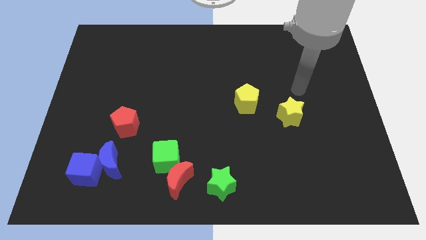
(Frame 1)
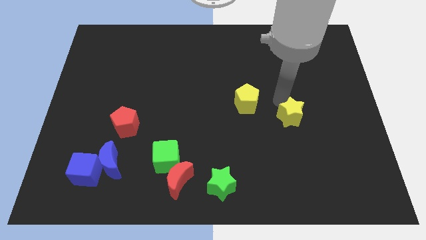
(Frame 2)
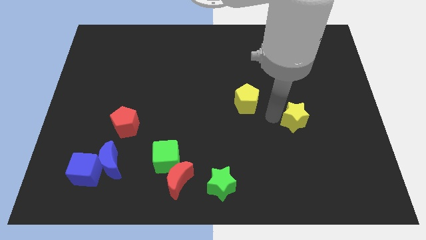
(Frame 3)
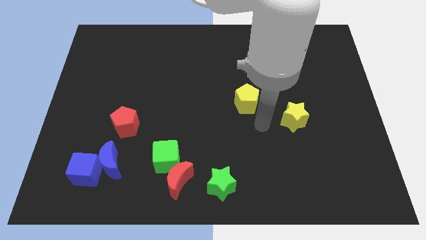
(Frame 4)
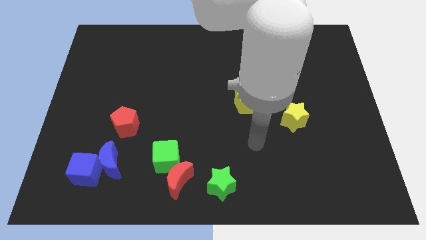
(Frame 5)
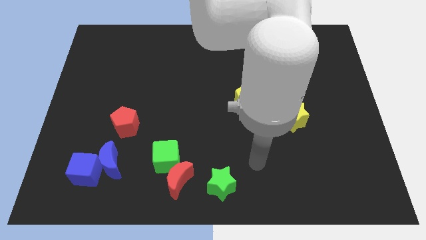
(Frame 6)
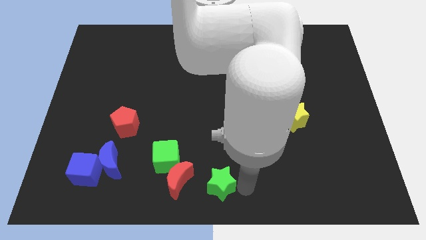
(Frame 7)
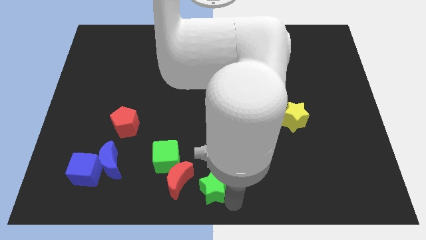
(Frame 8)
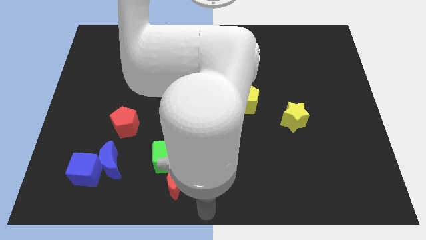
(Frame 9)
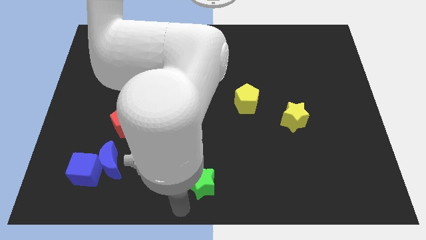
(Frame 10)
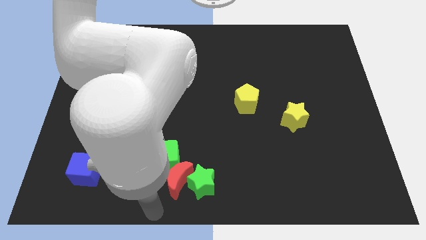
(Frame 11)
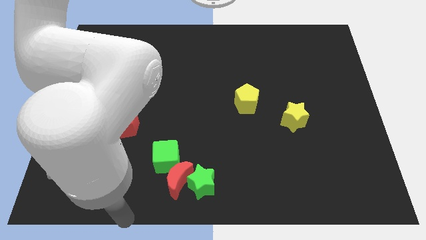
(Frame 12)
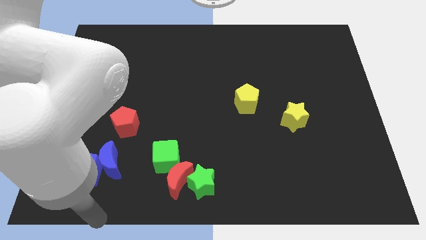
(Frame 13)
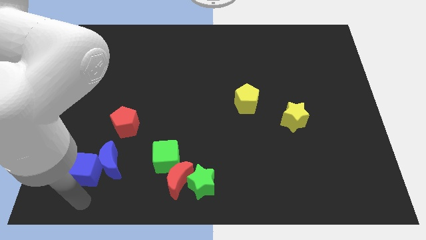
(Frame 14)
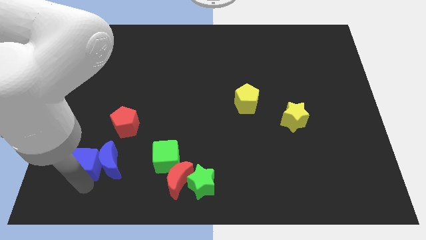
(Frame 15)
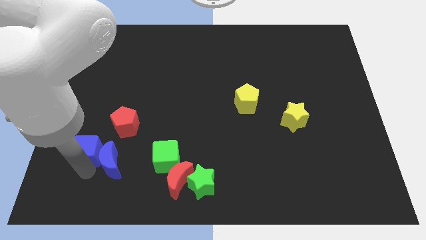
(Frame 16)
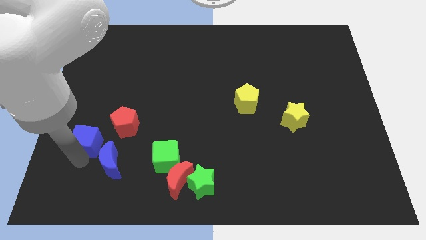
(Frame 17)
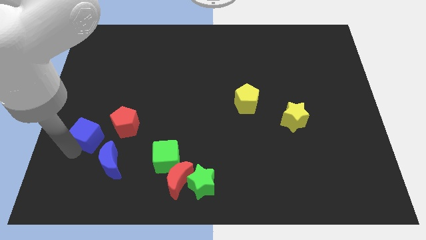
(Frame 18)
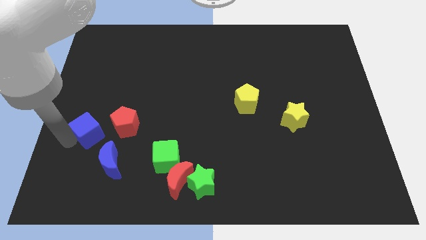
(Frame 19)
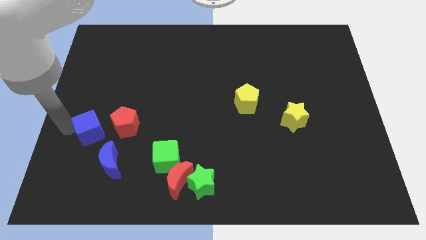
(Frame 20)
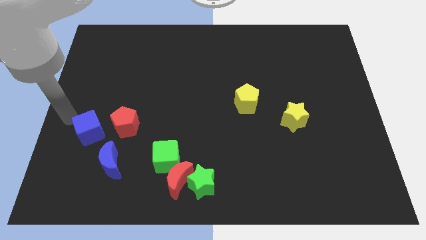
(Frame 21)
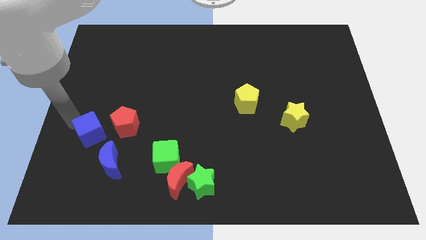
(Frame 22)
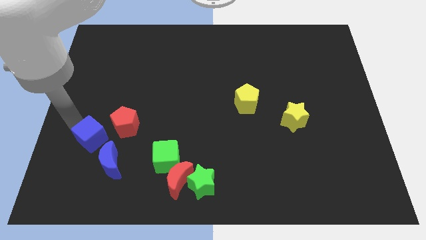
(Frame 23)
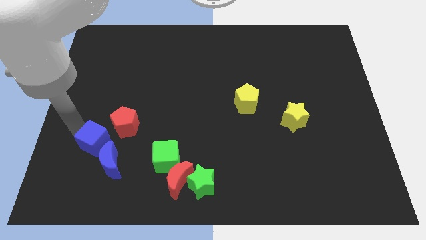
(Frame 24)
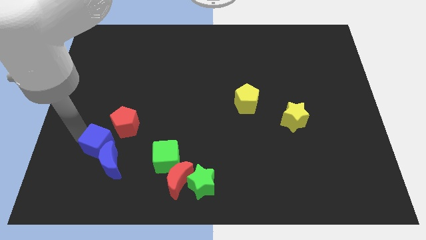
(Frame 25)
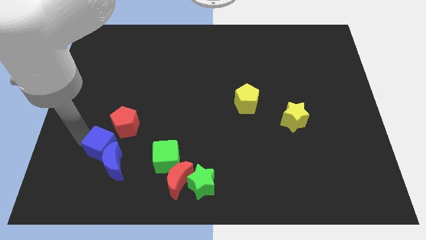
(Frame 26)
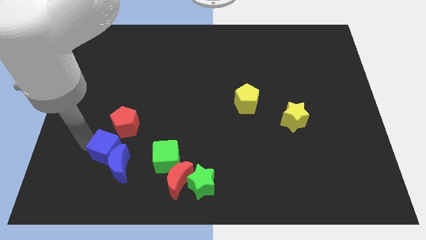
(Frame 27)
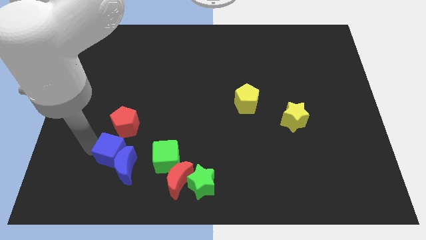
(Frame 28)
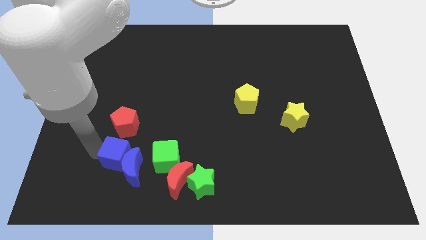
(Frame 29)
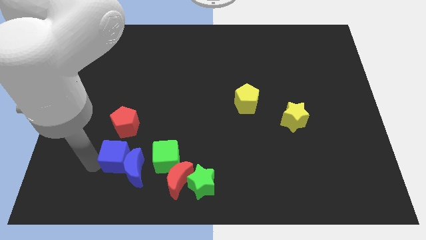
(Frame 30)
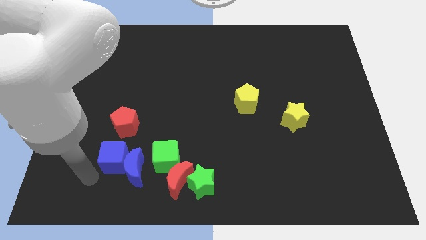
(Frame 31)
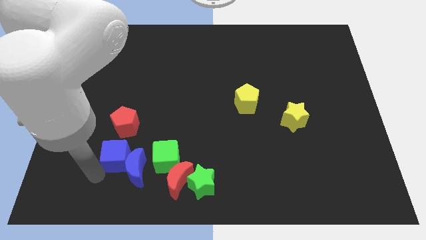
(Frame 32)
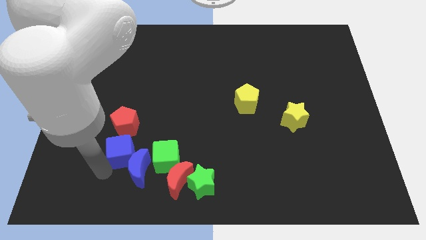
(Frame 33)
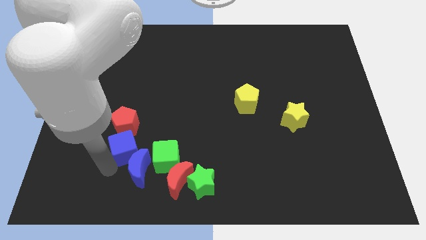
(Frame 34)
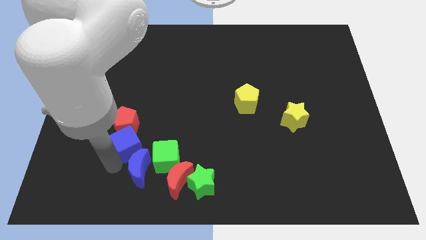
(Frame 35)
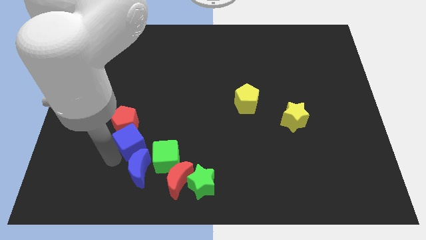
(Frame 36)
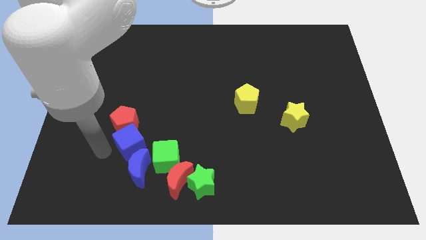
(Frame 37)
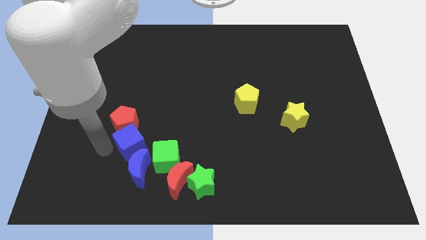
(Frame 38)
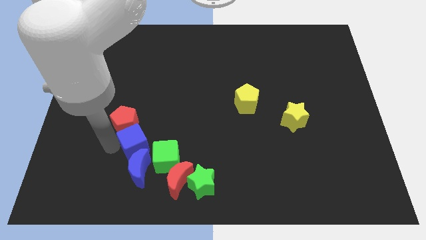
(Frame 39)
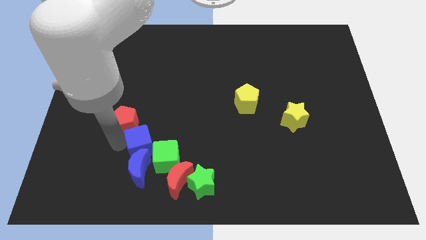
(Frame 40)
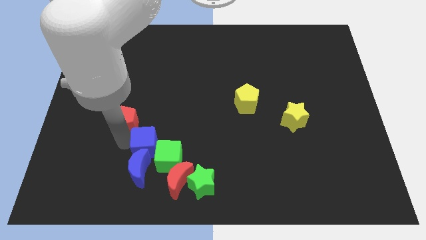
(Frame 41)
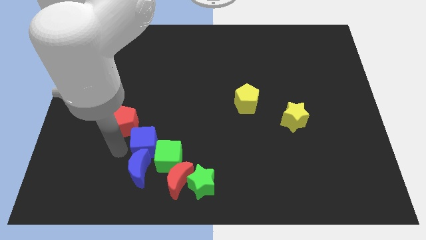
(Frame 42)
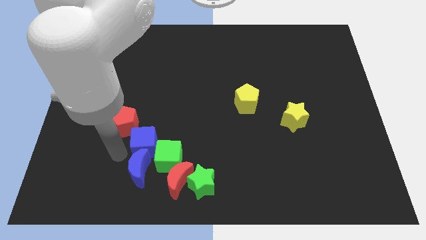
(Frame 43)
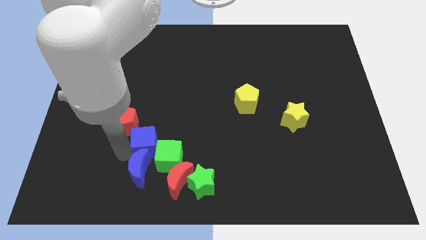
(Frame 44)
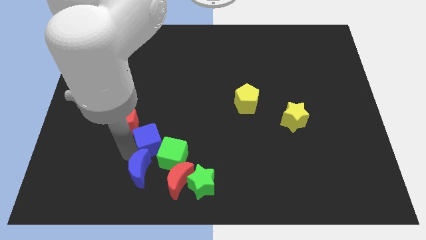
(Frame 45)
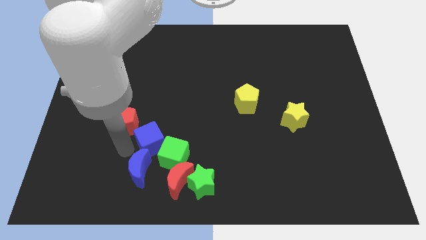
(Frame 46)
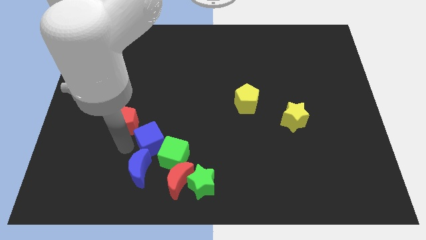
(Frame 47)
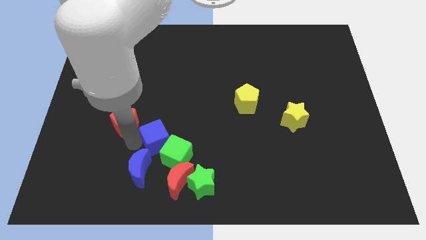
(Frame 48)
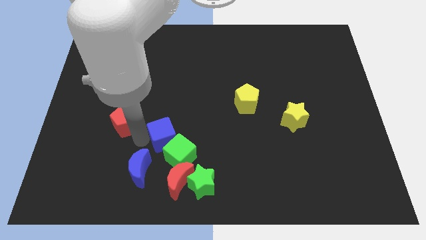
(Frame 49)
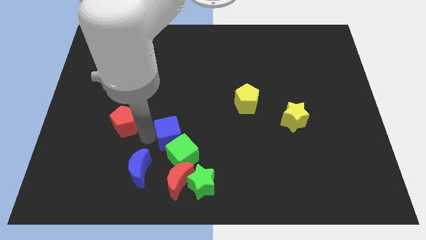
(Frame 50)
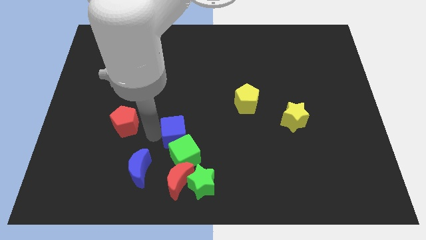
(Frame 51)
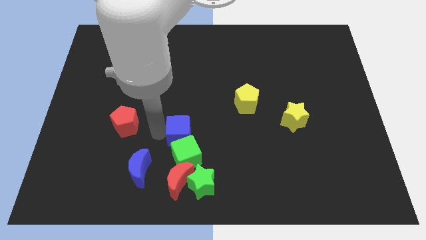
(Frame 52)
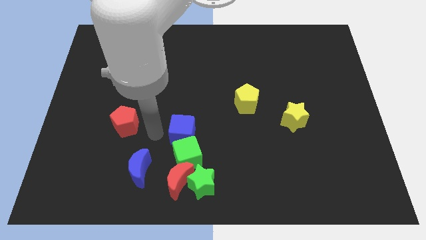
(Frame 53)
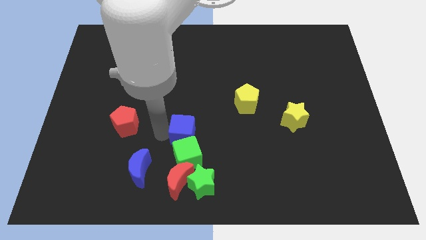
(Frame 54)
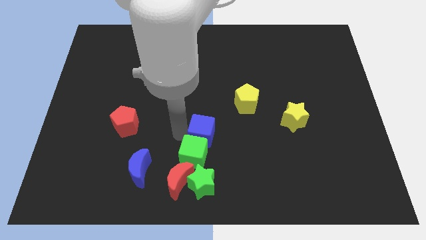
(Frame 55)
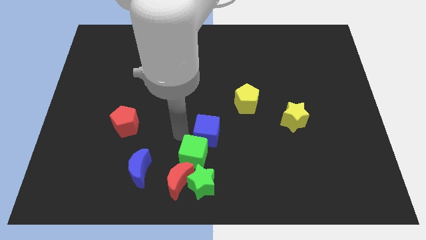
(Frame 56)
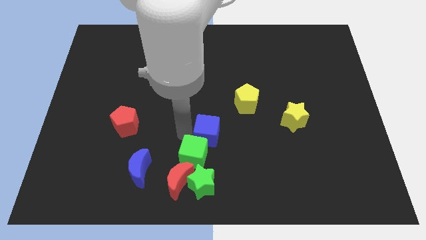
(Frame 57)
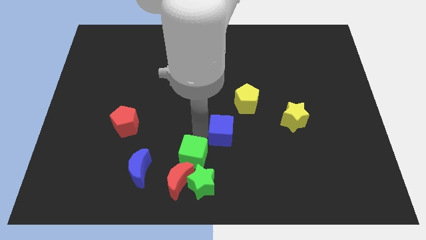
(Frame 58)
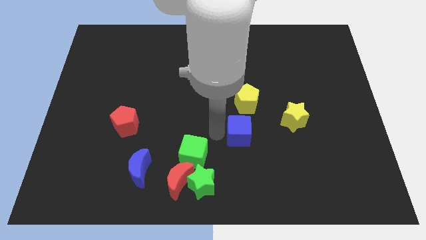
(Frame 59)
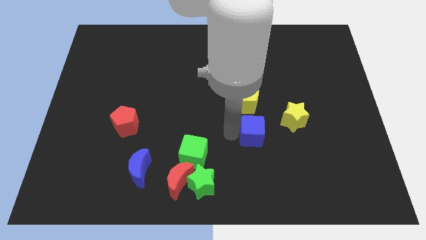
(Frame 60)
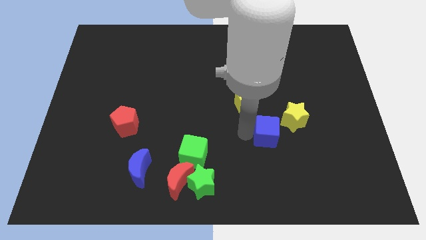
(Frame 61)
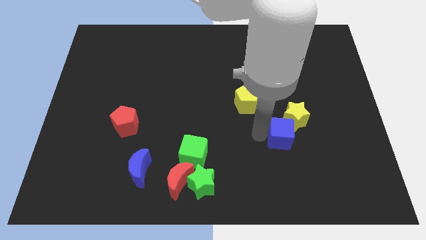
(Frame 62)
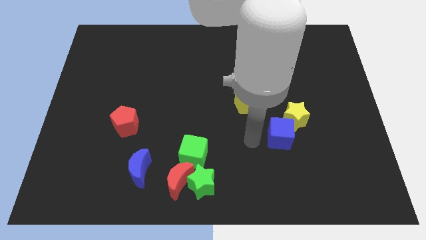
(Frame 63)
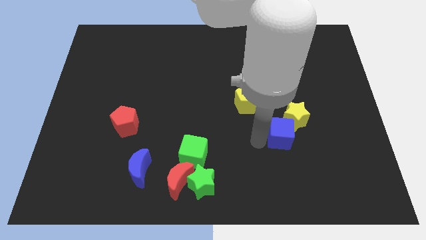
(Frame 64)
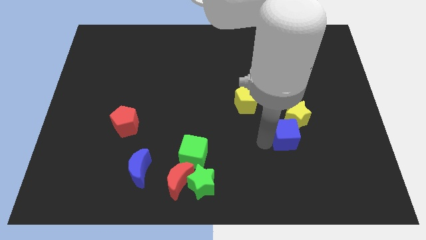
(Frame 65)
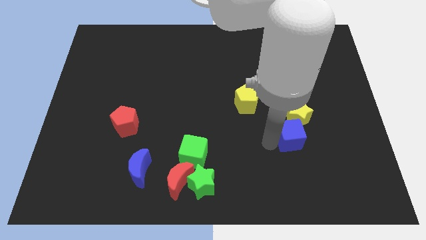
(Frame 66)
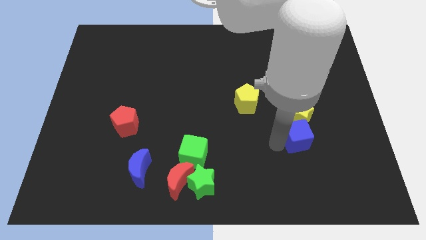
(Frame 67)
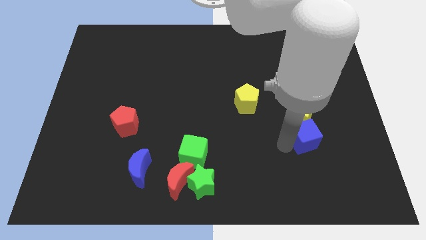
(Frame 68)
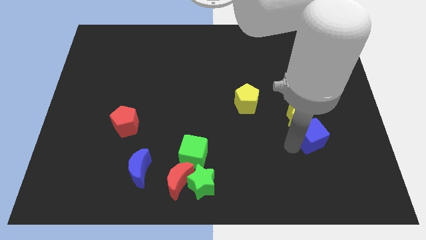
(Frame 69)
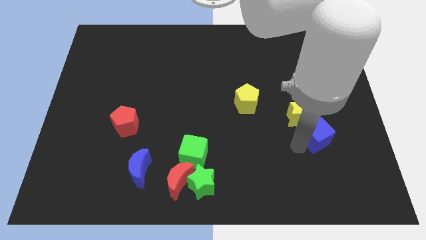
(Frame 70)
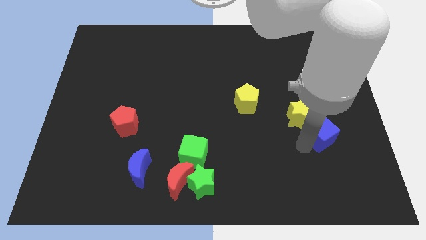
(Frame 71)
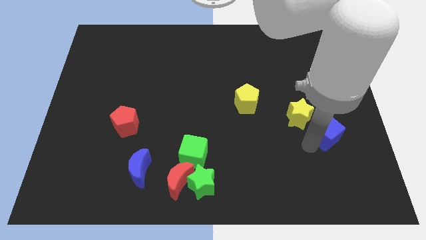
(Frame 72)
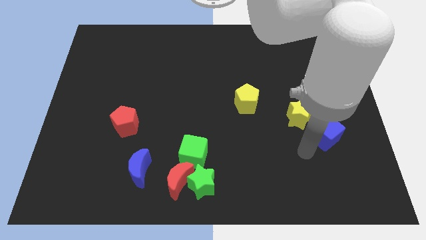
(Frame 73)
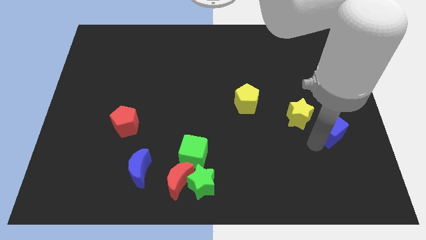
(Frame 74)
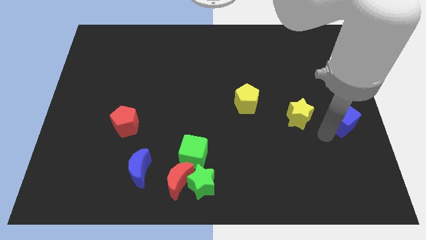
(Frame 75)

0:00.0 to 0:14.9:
push the blue cube to the right side of the board
